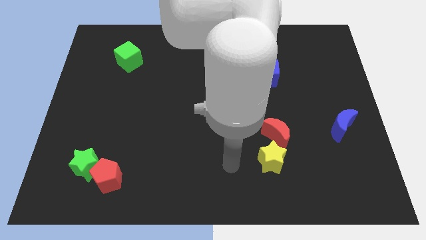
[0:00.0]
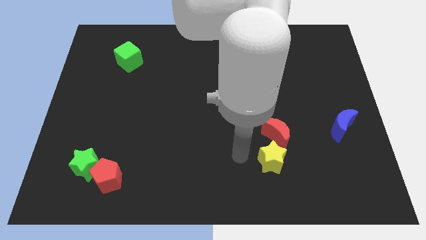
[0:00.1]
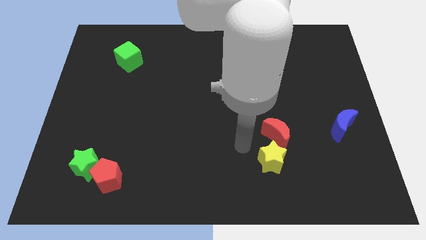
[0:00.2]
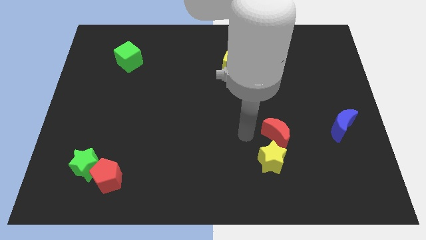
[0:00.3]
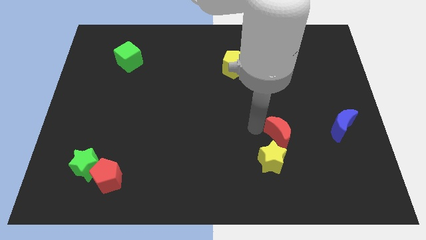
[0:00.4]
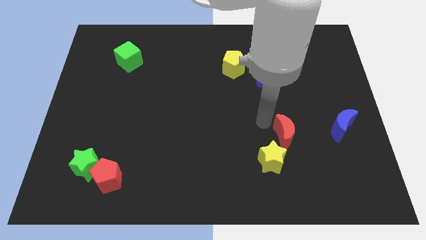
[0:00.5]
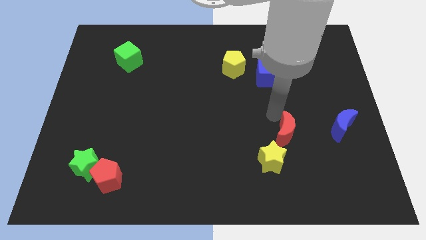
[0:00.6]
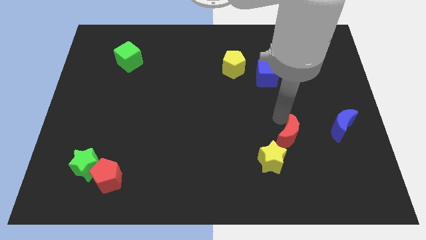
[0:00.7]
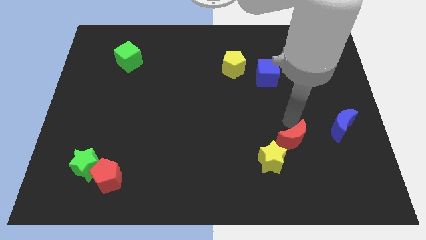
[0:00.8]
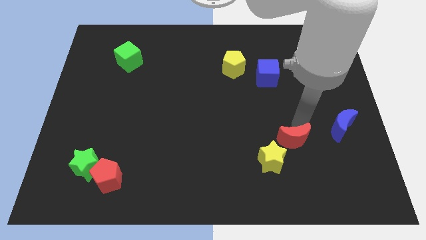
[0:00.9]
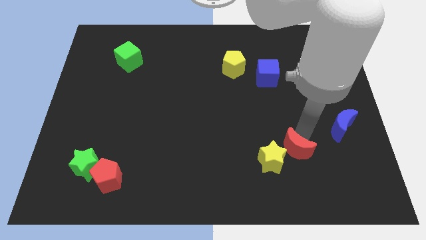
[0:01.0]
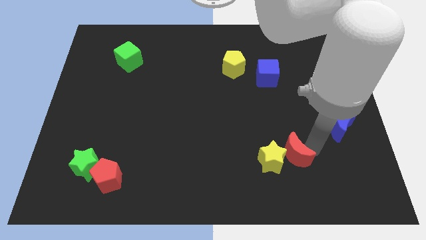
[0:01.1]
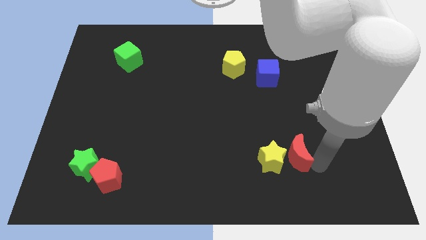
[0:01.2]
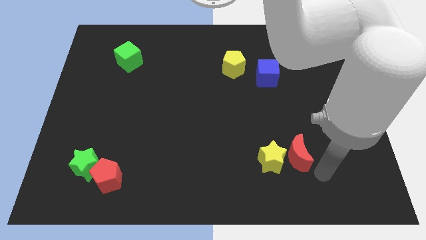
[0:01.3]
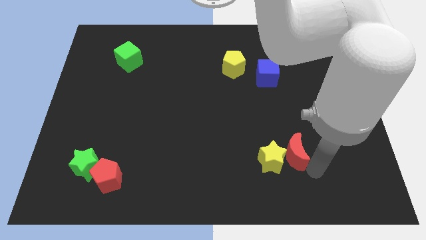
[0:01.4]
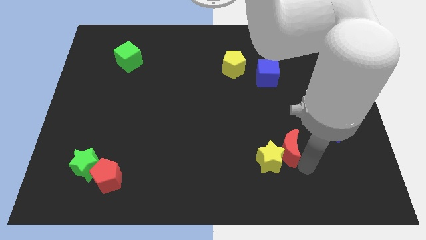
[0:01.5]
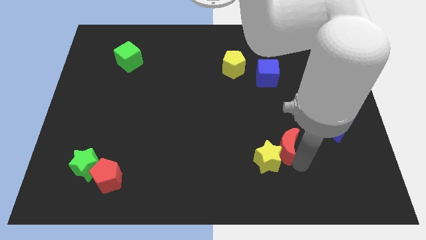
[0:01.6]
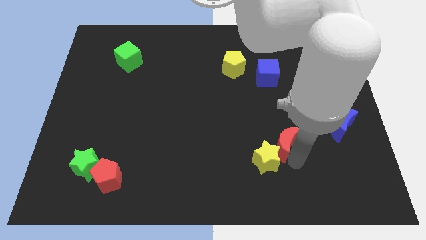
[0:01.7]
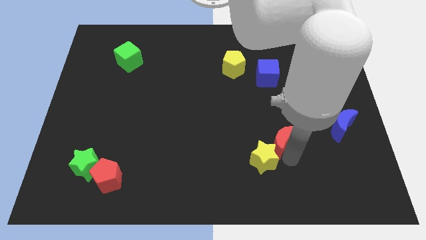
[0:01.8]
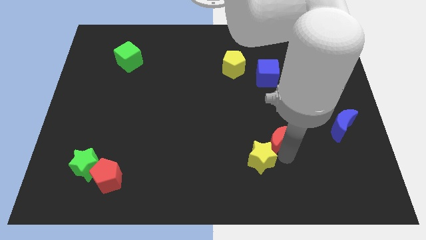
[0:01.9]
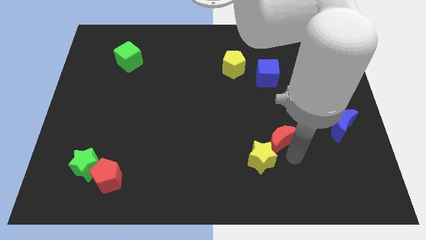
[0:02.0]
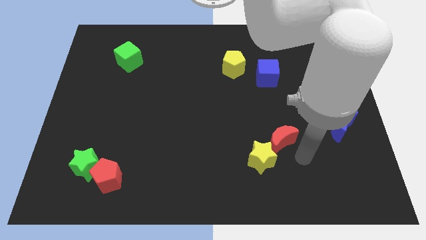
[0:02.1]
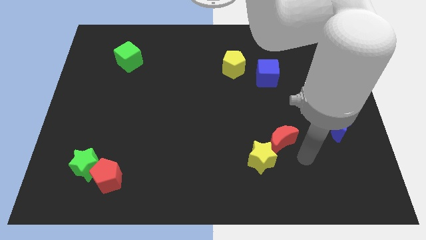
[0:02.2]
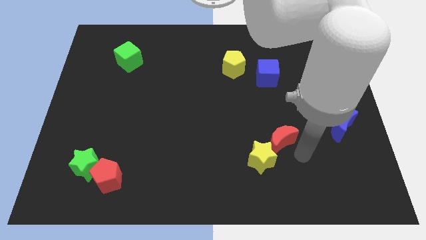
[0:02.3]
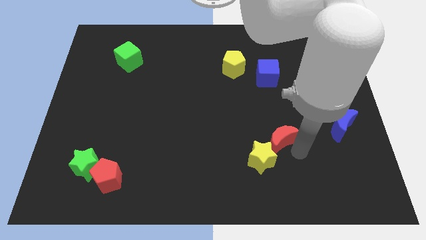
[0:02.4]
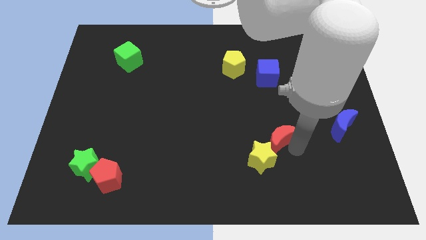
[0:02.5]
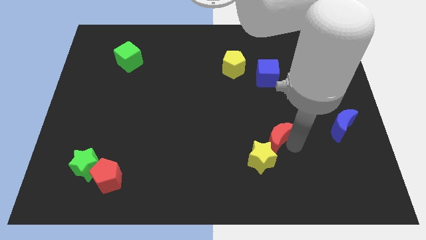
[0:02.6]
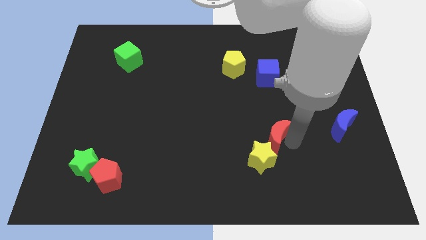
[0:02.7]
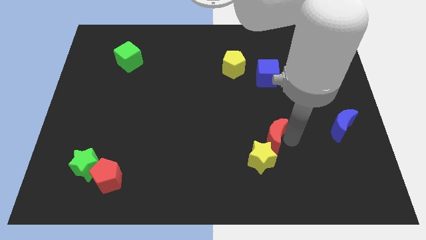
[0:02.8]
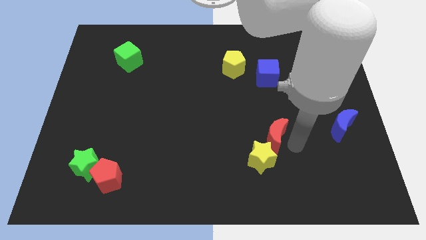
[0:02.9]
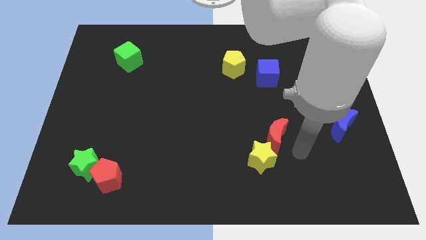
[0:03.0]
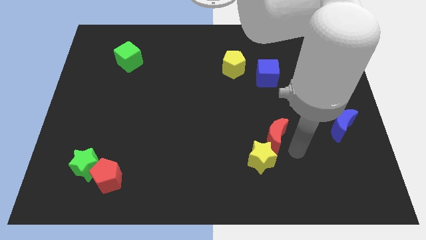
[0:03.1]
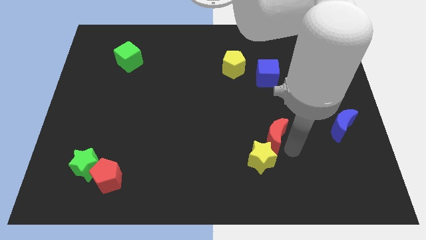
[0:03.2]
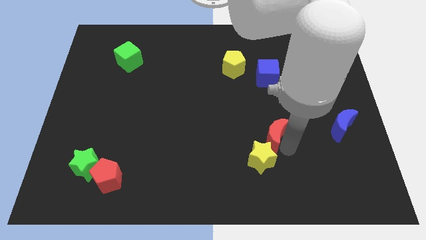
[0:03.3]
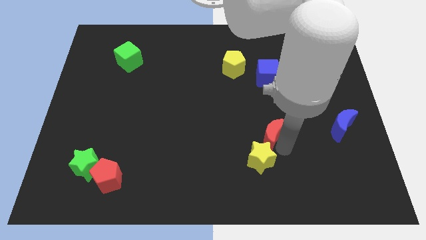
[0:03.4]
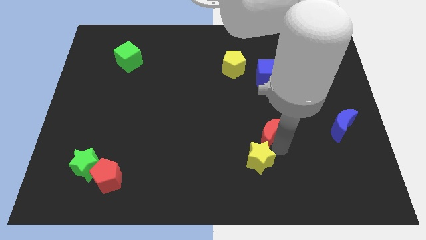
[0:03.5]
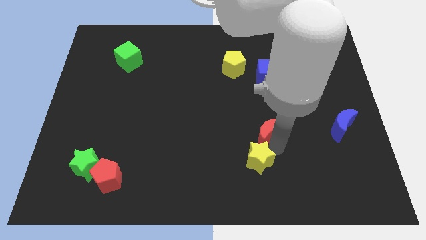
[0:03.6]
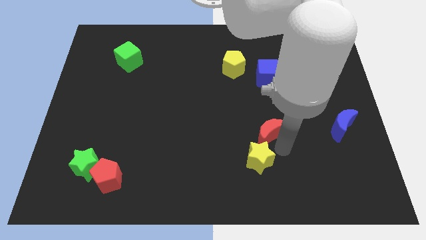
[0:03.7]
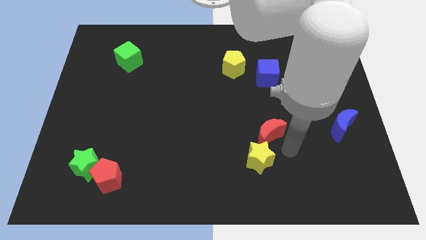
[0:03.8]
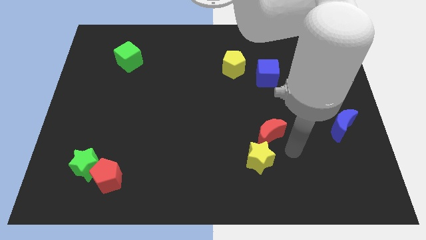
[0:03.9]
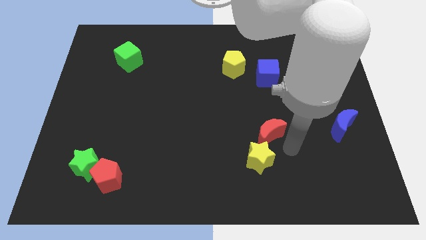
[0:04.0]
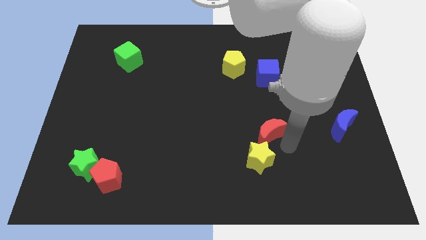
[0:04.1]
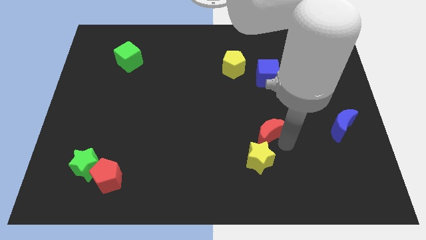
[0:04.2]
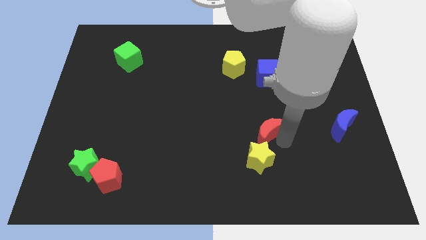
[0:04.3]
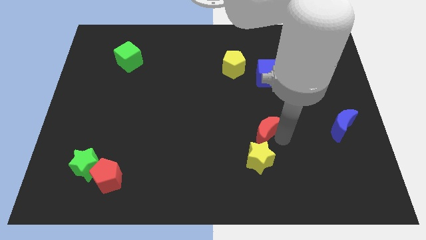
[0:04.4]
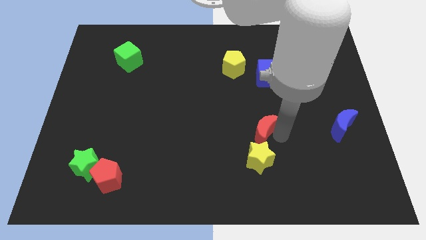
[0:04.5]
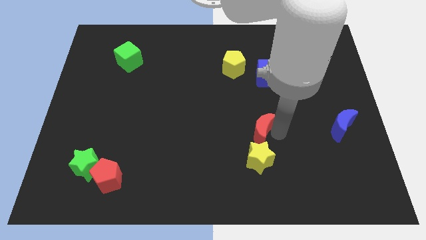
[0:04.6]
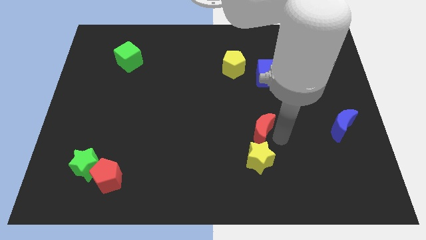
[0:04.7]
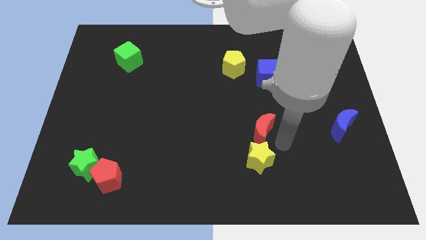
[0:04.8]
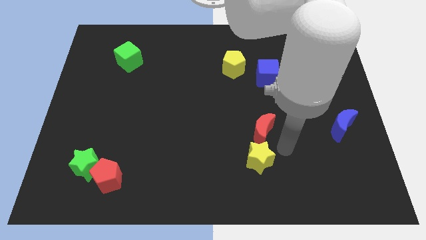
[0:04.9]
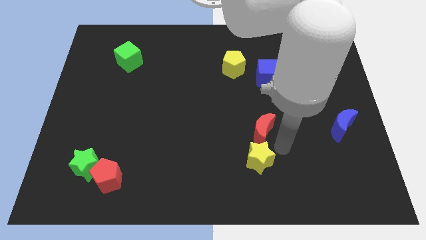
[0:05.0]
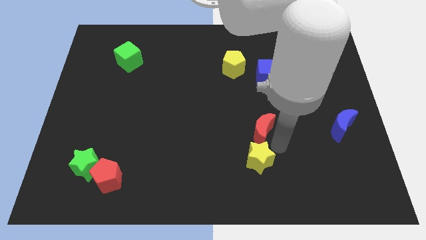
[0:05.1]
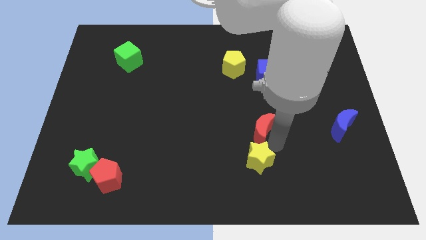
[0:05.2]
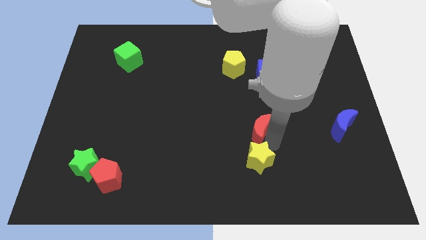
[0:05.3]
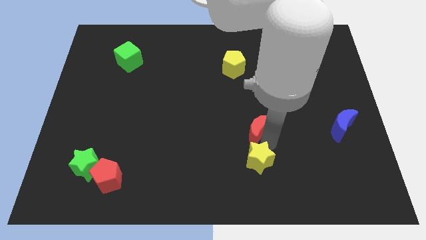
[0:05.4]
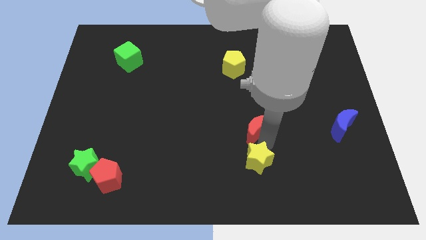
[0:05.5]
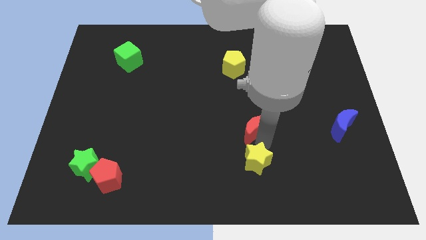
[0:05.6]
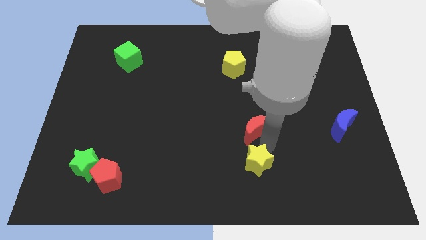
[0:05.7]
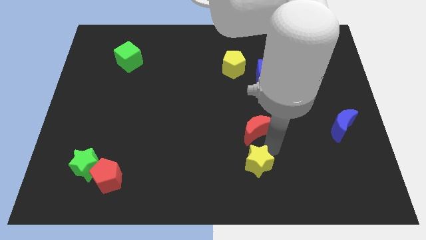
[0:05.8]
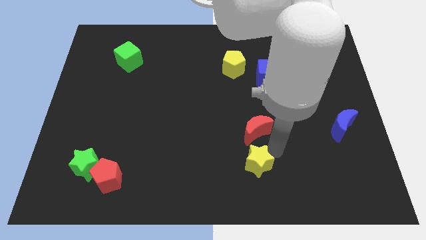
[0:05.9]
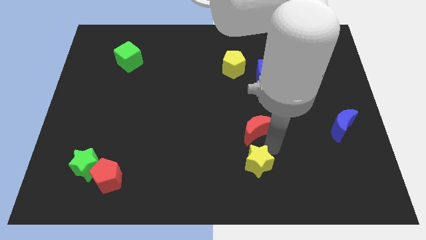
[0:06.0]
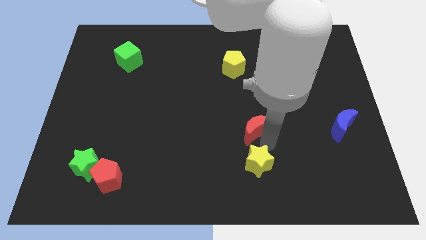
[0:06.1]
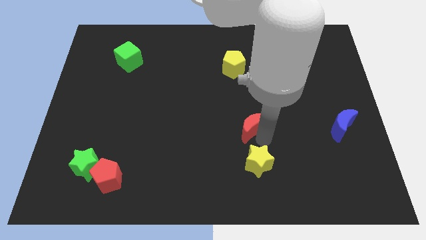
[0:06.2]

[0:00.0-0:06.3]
put the red moon to the center
